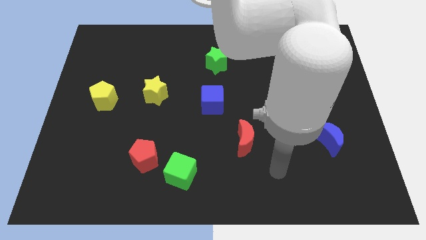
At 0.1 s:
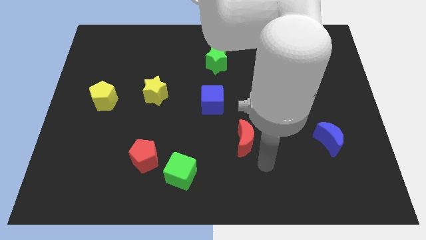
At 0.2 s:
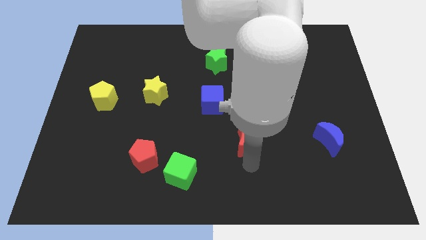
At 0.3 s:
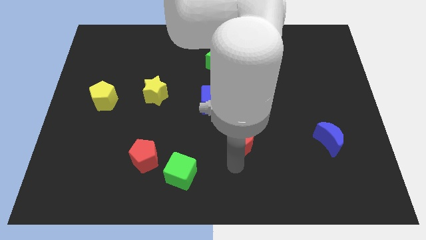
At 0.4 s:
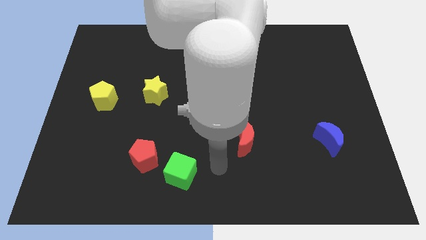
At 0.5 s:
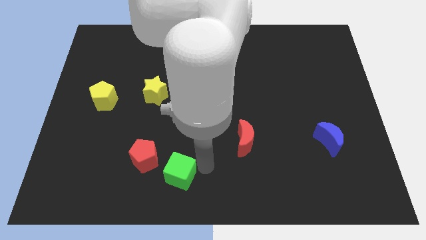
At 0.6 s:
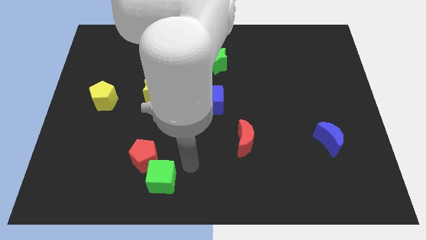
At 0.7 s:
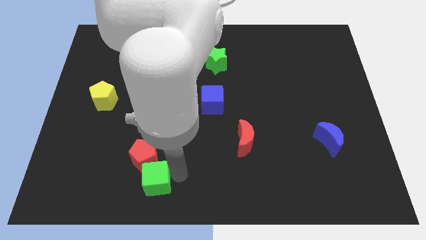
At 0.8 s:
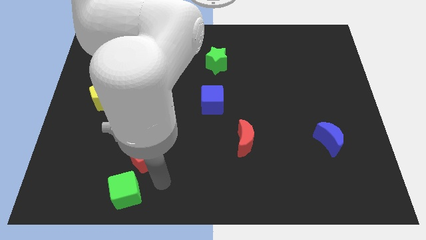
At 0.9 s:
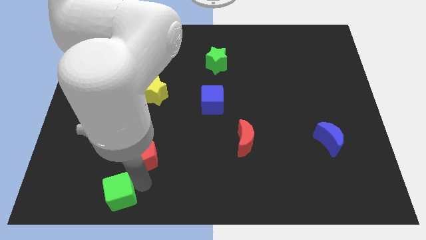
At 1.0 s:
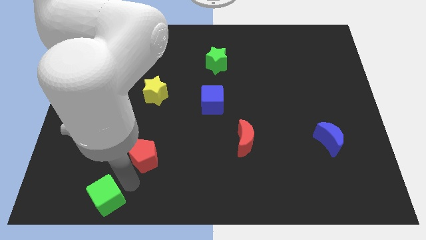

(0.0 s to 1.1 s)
move the red pentagon away from the green cube

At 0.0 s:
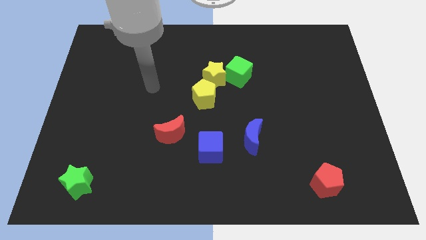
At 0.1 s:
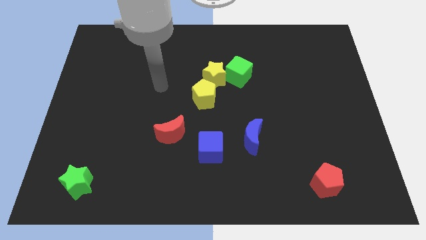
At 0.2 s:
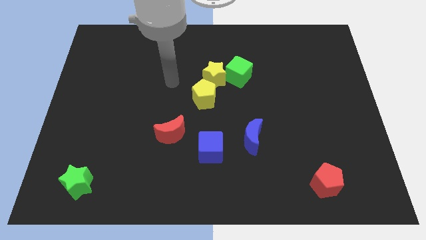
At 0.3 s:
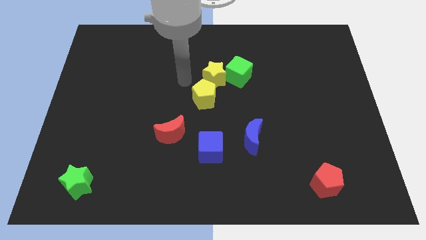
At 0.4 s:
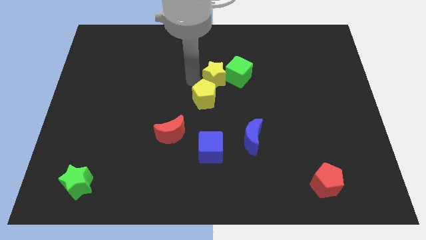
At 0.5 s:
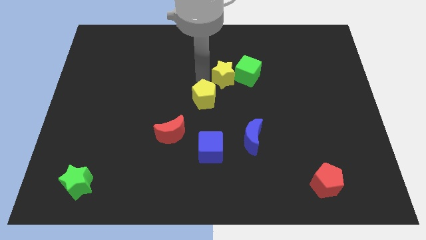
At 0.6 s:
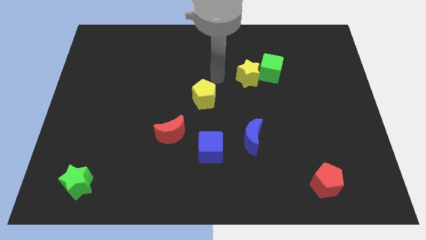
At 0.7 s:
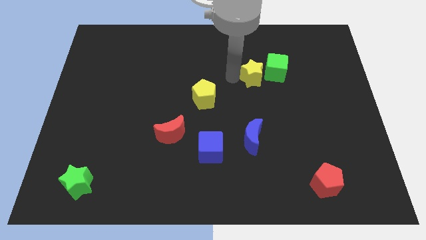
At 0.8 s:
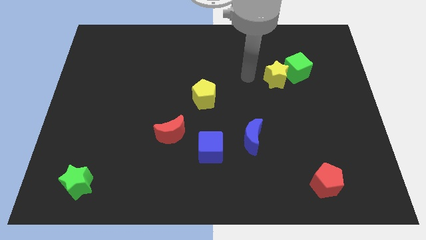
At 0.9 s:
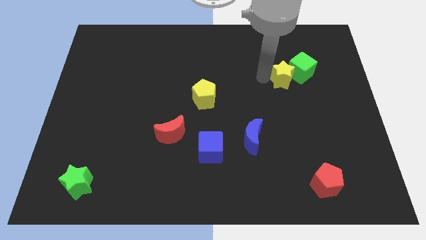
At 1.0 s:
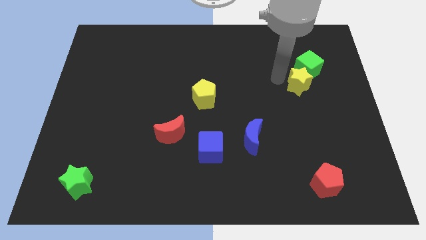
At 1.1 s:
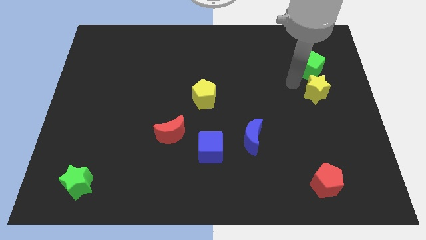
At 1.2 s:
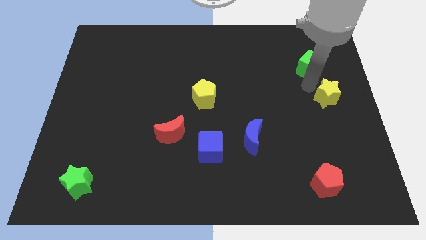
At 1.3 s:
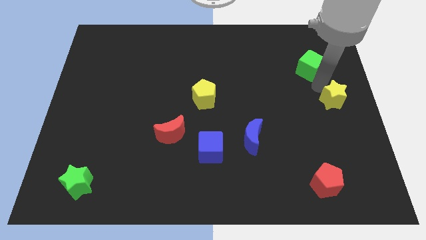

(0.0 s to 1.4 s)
move the green cube away from the yellow star

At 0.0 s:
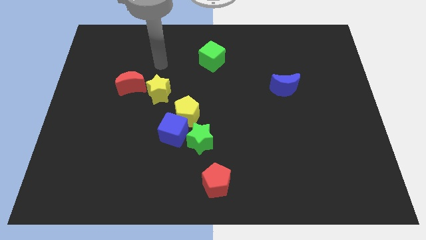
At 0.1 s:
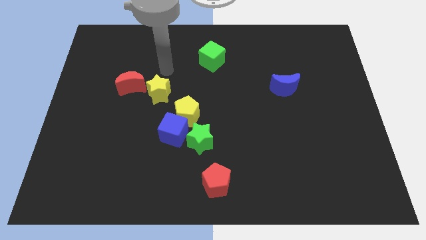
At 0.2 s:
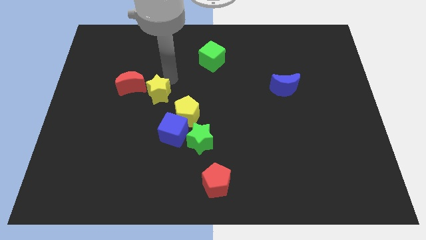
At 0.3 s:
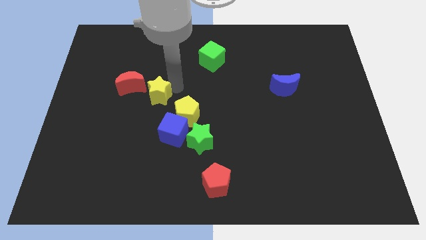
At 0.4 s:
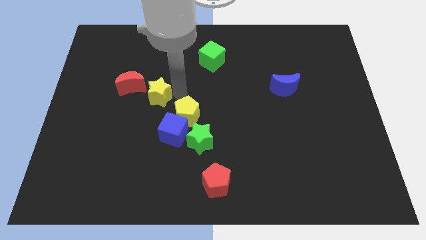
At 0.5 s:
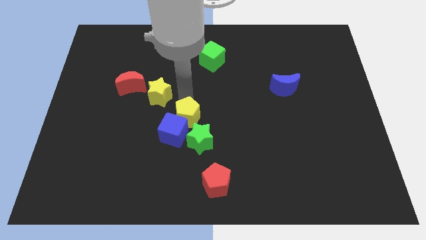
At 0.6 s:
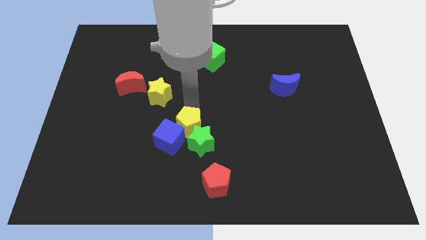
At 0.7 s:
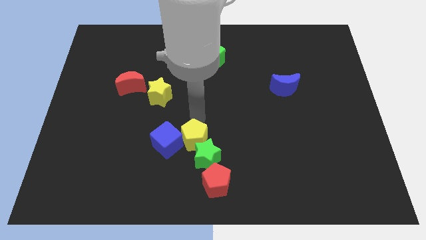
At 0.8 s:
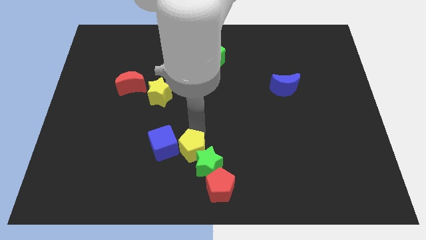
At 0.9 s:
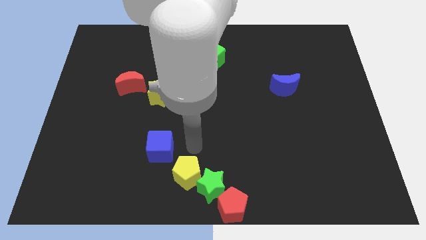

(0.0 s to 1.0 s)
pull the blue cube apart from the yellow pentagon and green star

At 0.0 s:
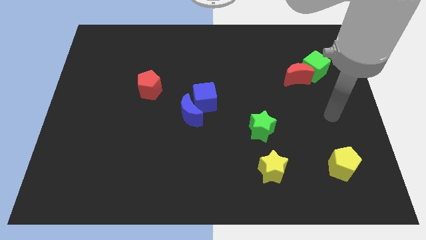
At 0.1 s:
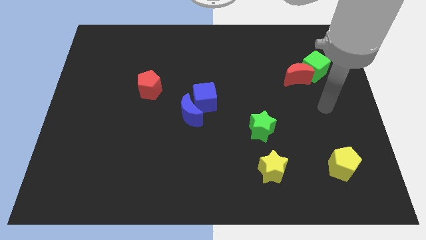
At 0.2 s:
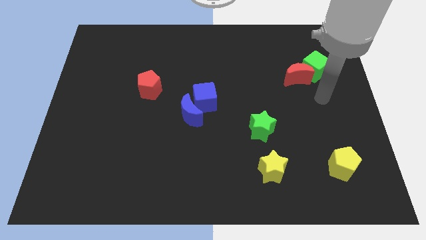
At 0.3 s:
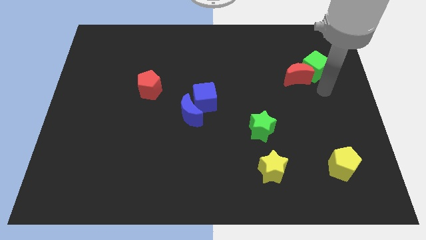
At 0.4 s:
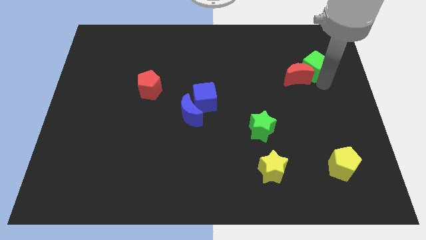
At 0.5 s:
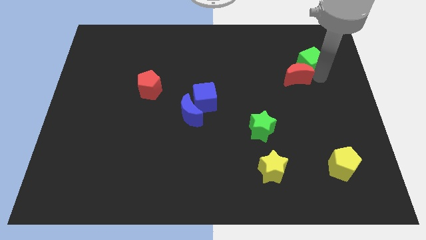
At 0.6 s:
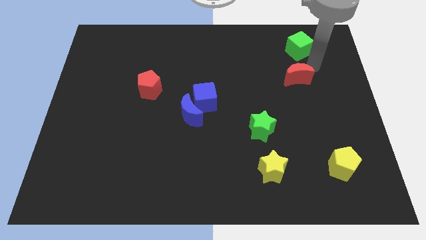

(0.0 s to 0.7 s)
separate the red moon from the green cube

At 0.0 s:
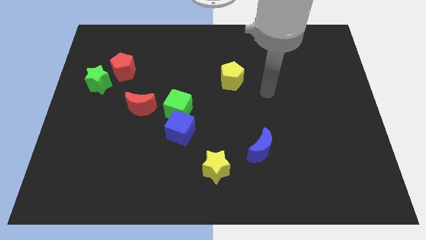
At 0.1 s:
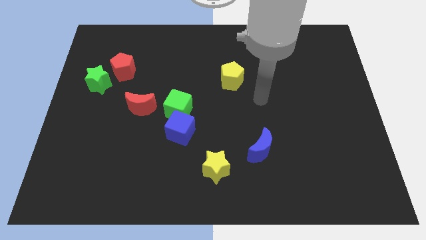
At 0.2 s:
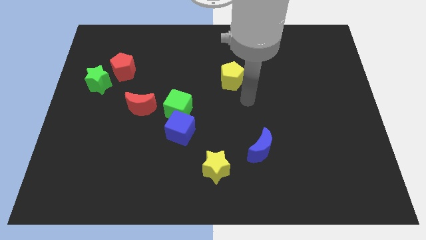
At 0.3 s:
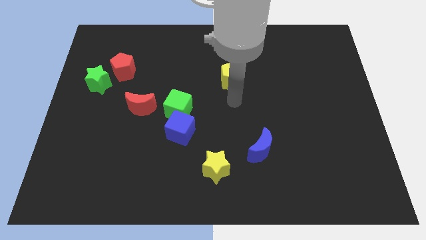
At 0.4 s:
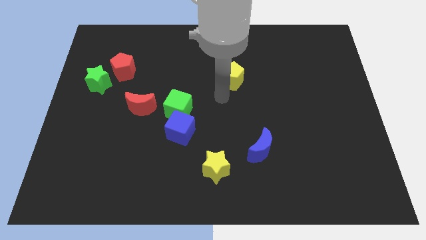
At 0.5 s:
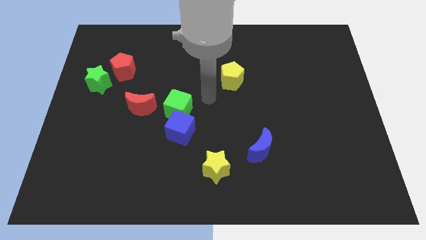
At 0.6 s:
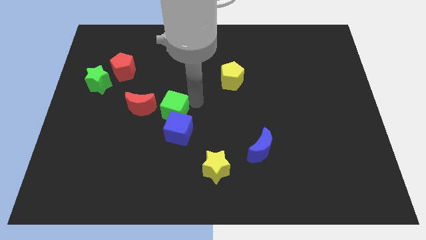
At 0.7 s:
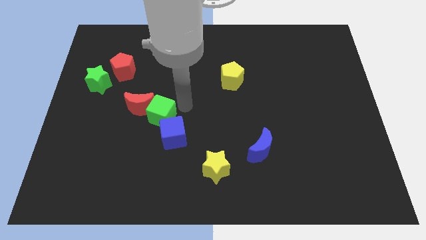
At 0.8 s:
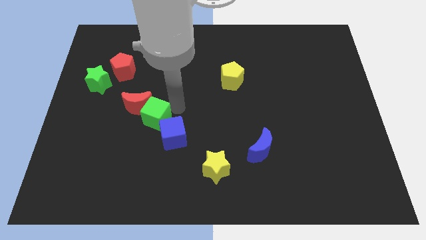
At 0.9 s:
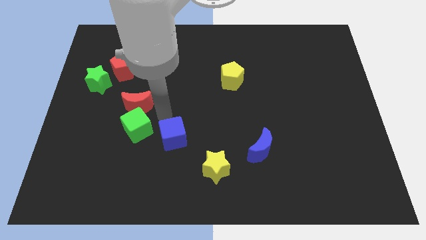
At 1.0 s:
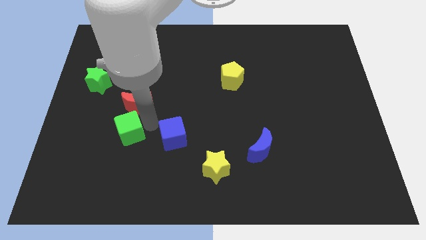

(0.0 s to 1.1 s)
move the blue cube away from the green cube

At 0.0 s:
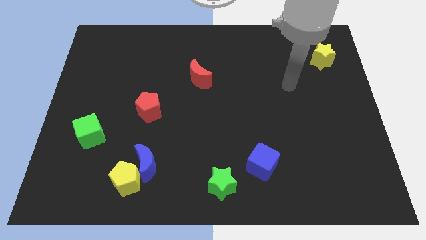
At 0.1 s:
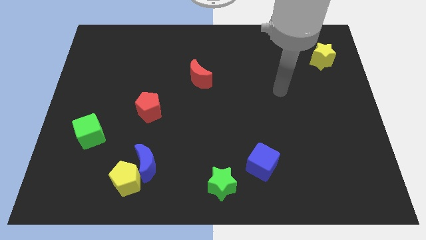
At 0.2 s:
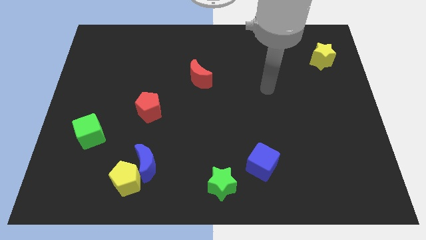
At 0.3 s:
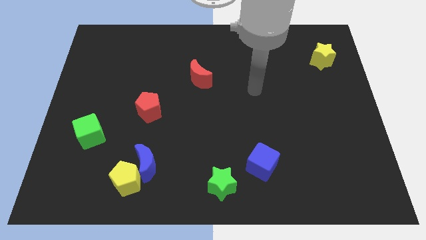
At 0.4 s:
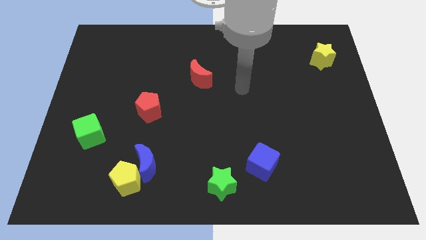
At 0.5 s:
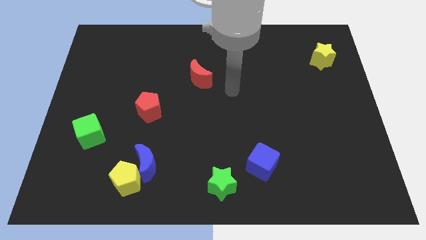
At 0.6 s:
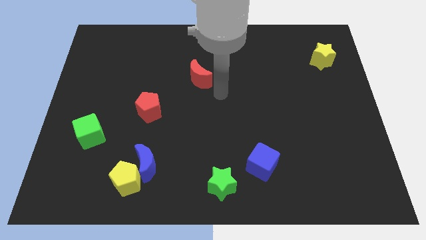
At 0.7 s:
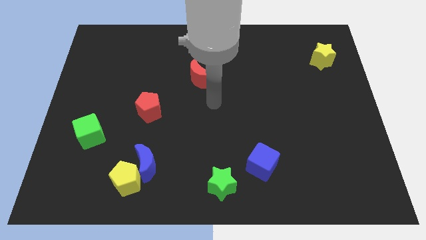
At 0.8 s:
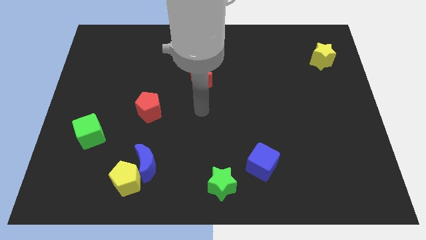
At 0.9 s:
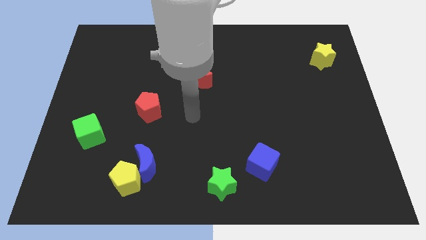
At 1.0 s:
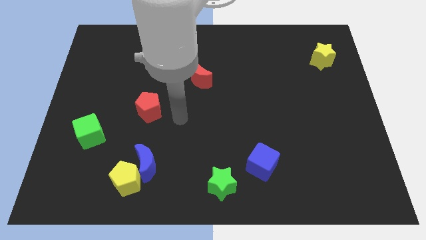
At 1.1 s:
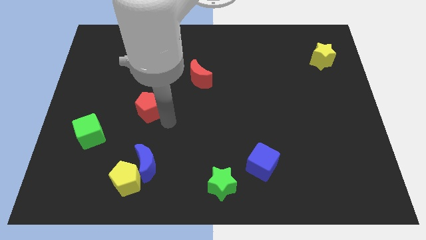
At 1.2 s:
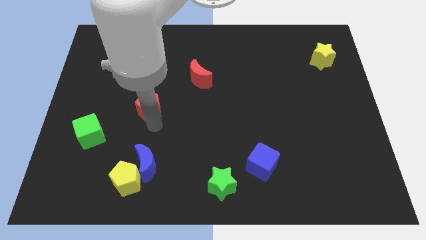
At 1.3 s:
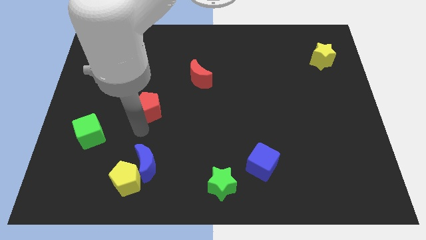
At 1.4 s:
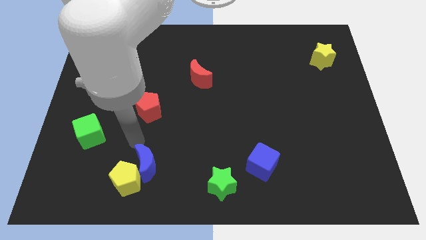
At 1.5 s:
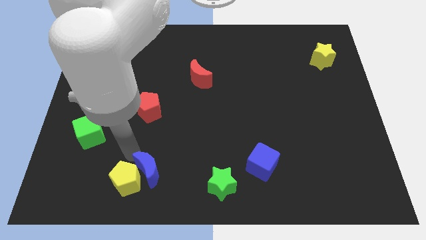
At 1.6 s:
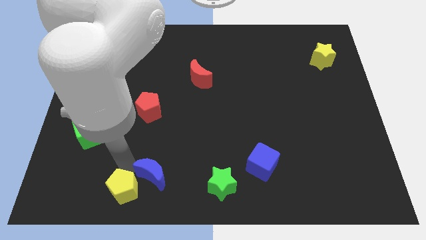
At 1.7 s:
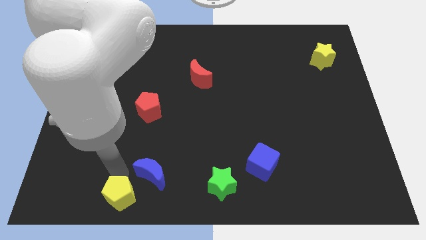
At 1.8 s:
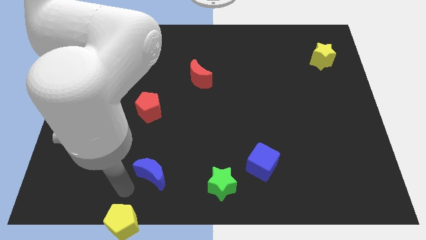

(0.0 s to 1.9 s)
move the blue moon away from the yellow pentagon

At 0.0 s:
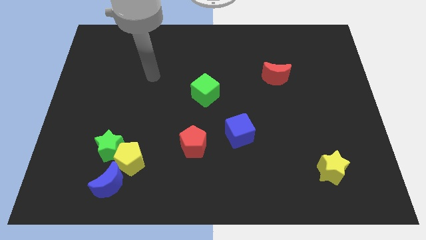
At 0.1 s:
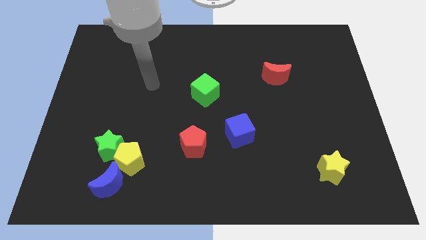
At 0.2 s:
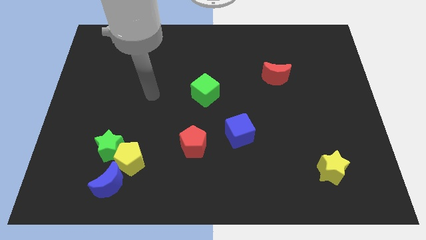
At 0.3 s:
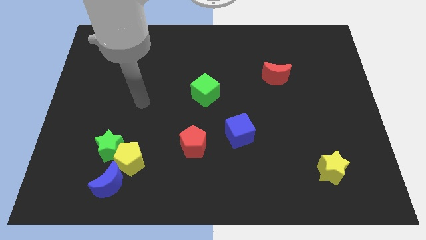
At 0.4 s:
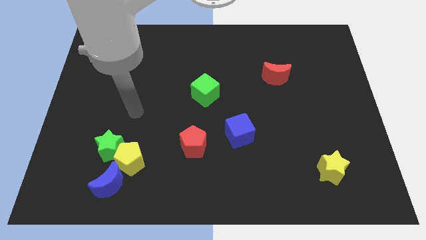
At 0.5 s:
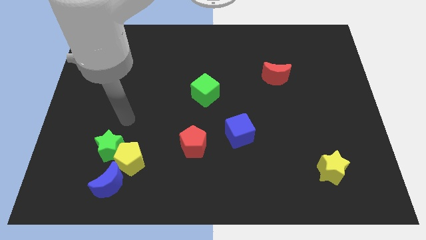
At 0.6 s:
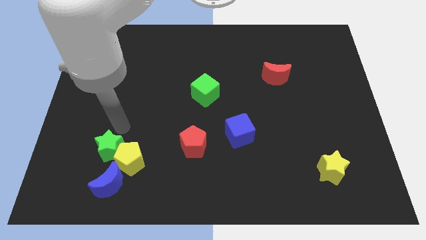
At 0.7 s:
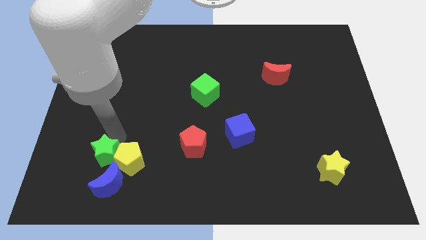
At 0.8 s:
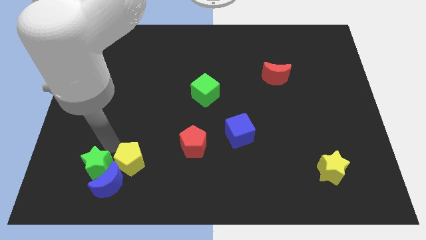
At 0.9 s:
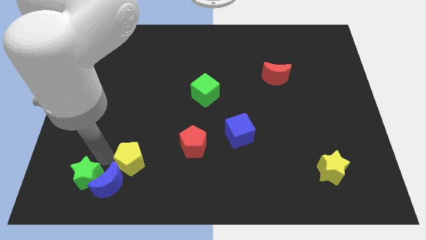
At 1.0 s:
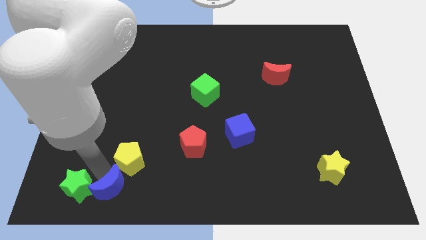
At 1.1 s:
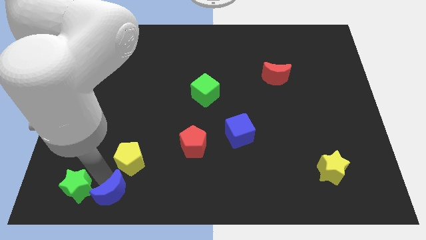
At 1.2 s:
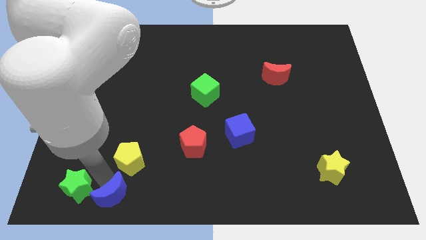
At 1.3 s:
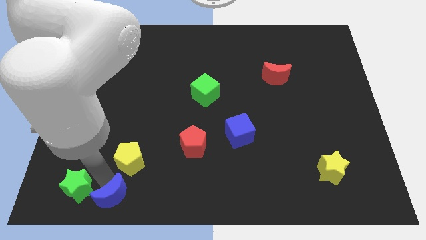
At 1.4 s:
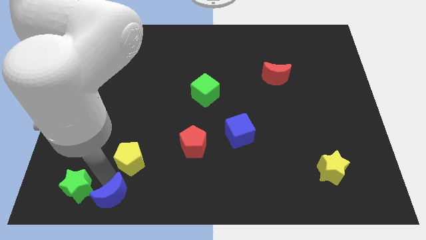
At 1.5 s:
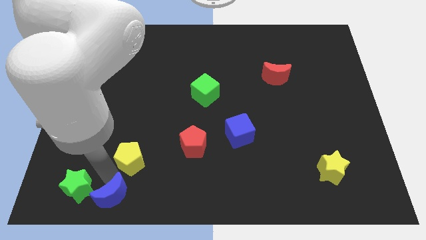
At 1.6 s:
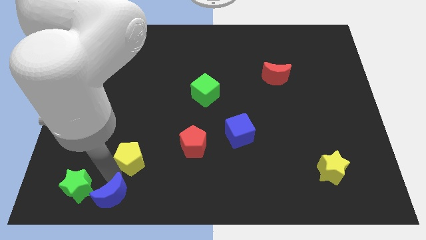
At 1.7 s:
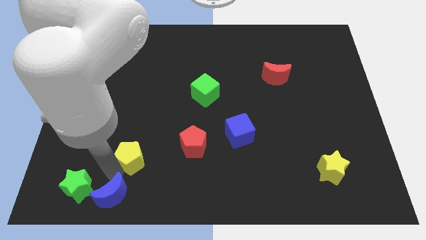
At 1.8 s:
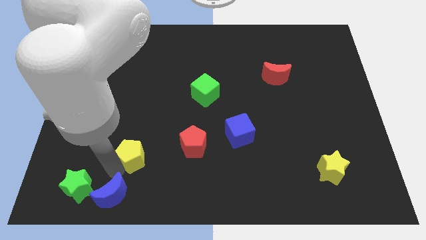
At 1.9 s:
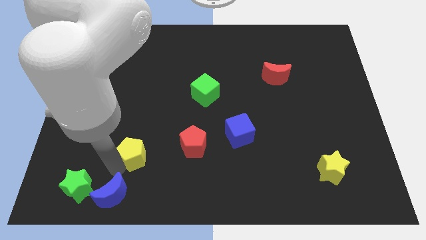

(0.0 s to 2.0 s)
move the yellow pentagon away from the green star and blue moon
